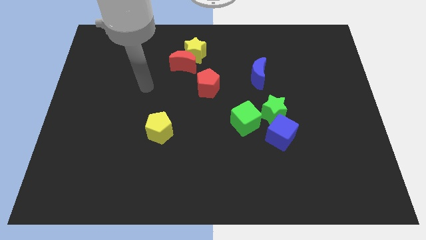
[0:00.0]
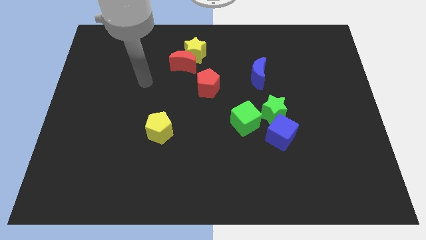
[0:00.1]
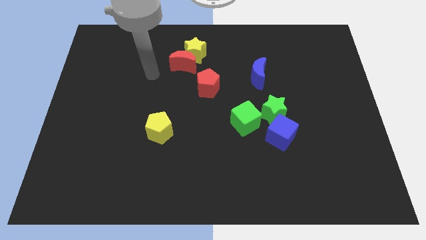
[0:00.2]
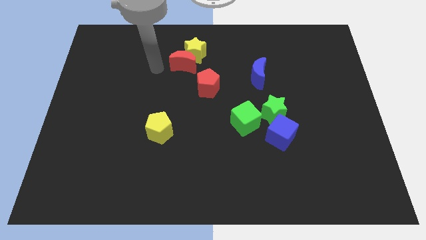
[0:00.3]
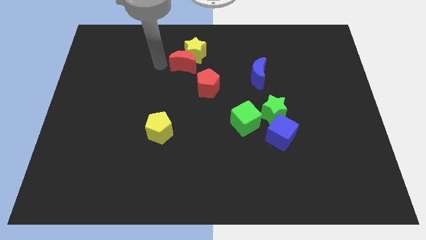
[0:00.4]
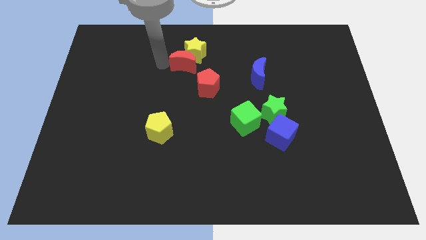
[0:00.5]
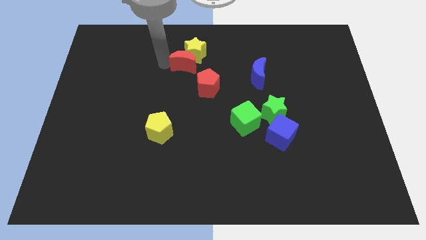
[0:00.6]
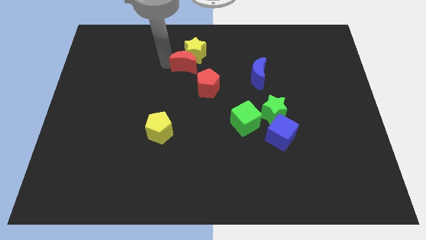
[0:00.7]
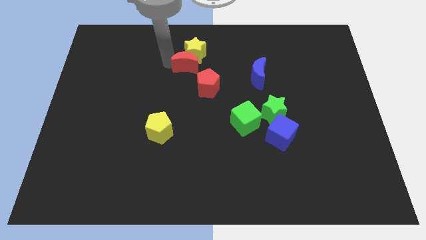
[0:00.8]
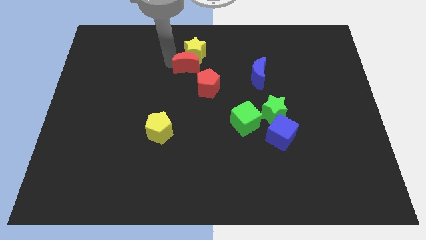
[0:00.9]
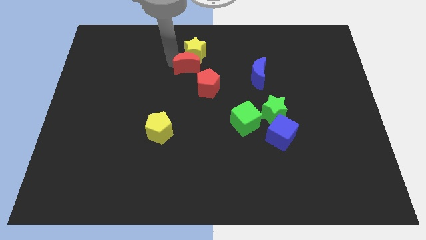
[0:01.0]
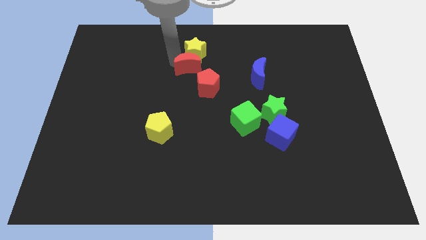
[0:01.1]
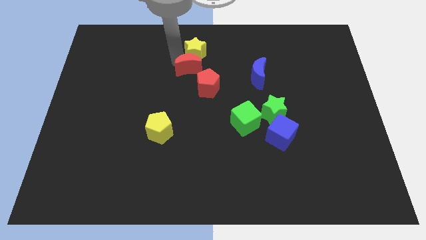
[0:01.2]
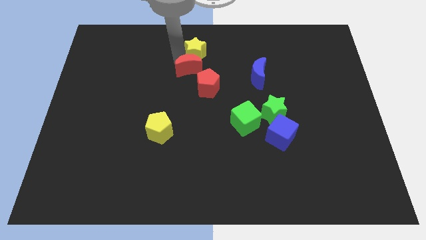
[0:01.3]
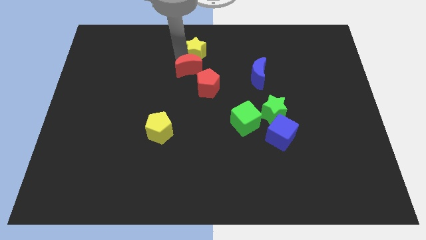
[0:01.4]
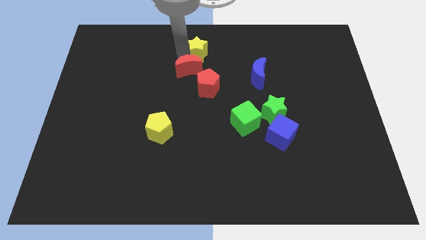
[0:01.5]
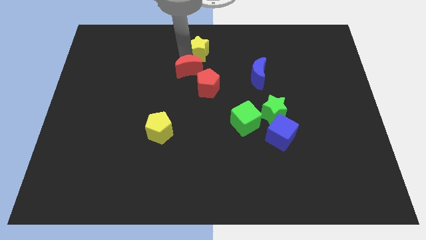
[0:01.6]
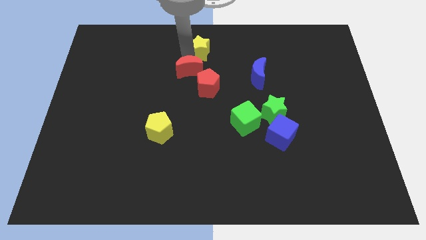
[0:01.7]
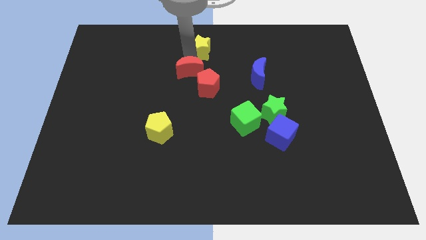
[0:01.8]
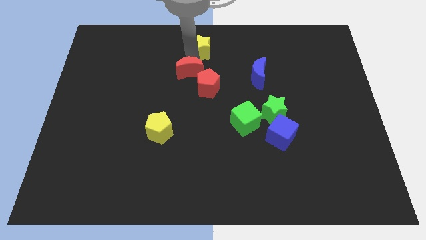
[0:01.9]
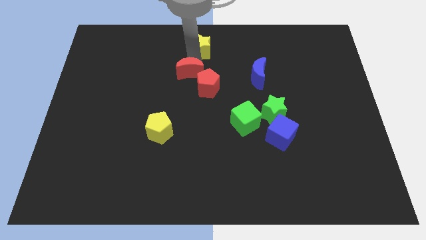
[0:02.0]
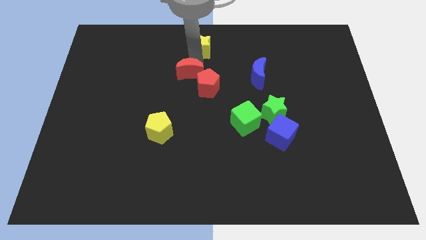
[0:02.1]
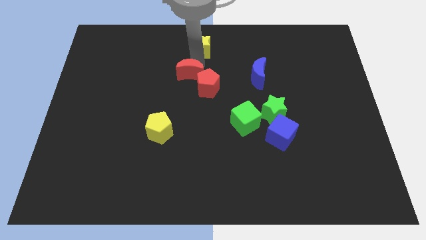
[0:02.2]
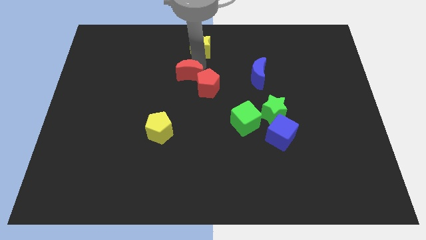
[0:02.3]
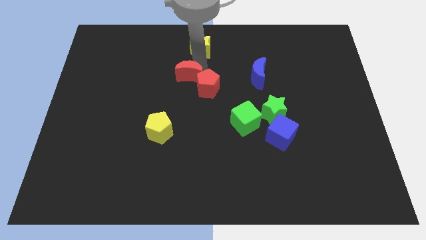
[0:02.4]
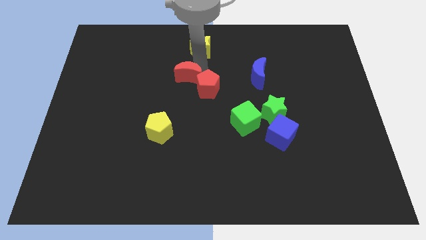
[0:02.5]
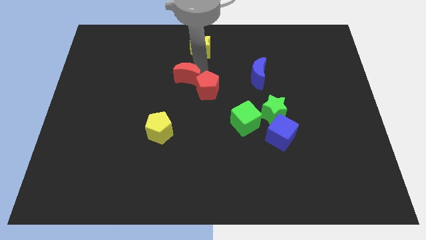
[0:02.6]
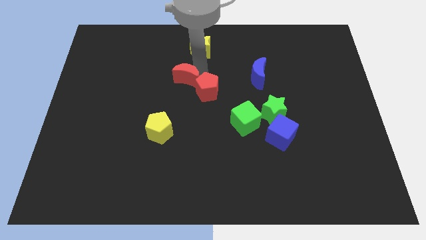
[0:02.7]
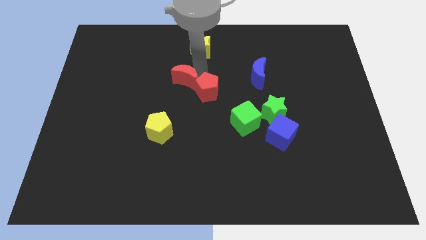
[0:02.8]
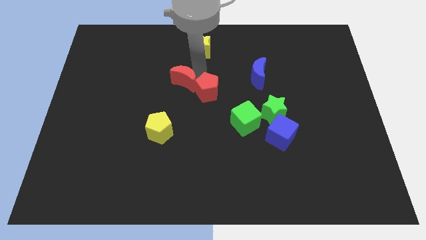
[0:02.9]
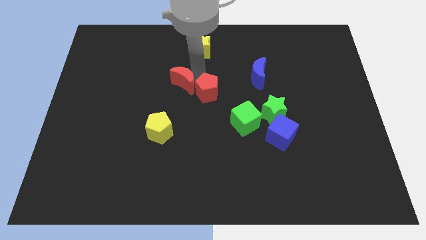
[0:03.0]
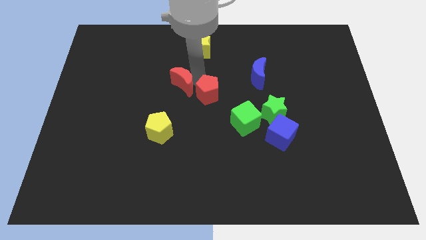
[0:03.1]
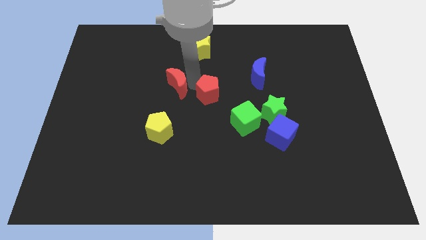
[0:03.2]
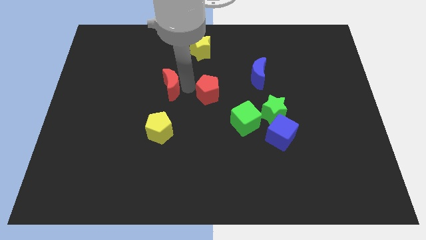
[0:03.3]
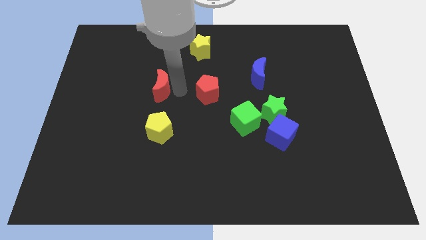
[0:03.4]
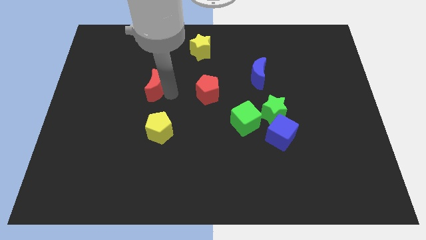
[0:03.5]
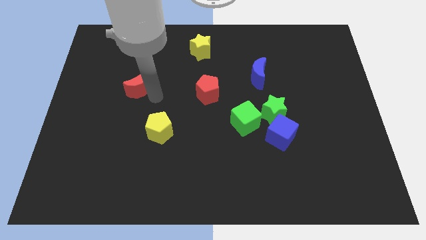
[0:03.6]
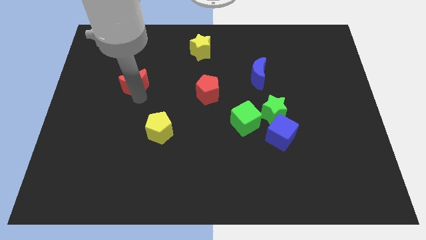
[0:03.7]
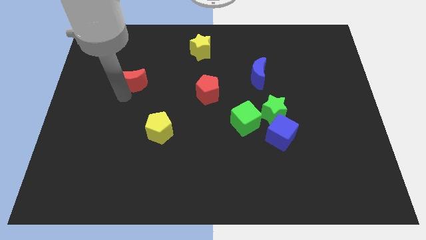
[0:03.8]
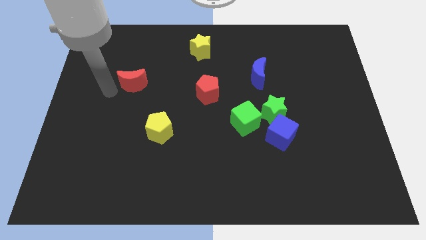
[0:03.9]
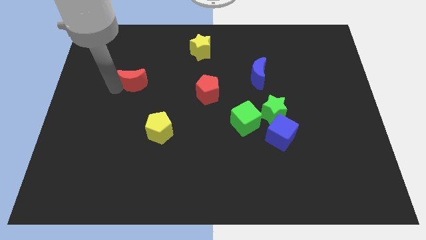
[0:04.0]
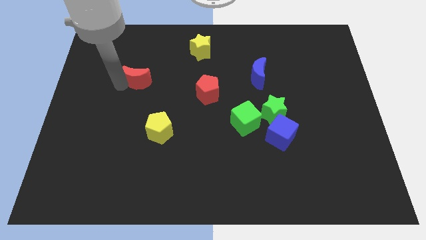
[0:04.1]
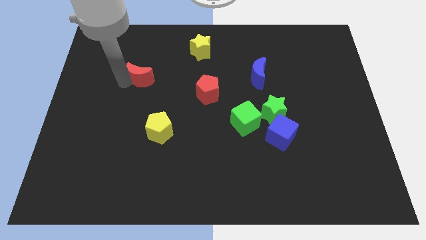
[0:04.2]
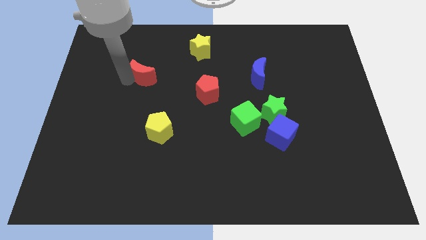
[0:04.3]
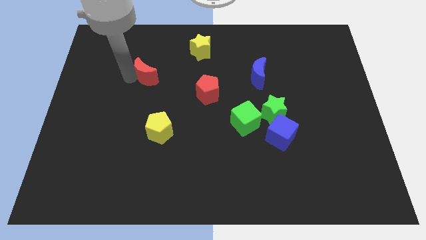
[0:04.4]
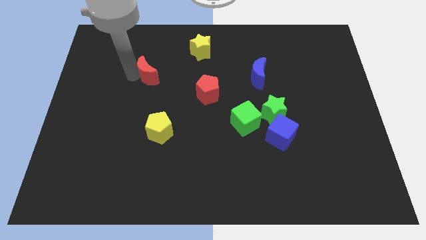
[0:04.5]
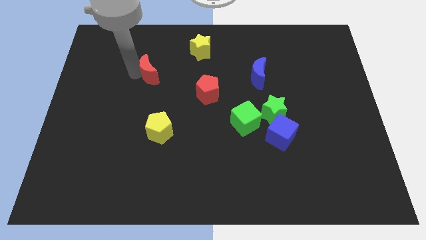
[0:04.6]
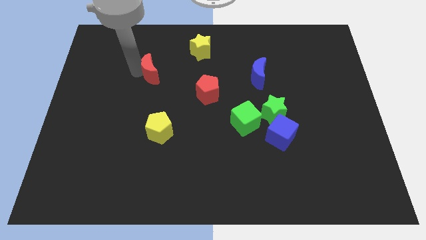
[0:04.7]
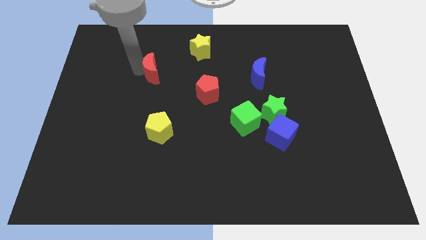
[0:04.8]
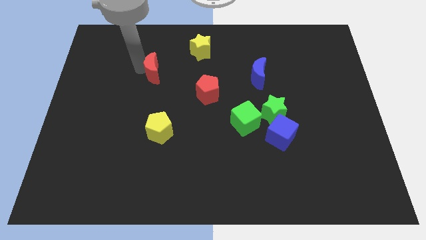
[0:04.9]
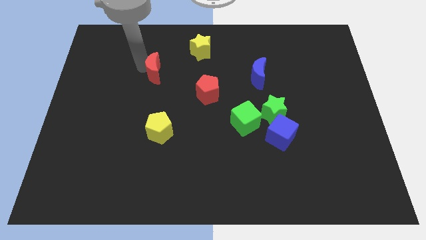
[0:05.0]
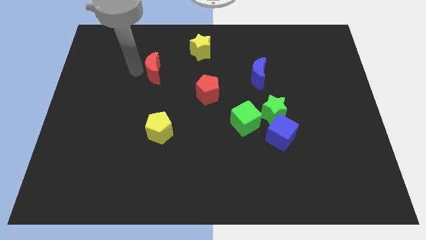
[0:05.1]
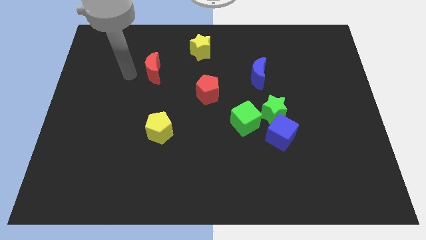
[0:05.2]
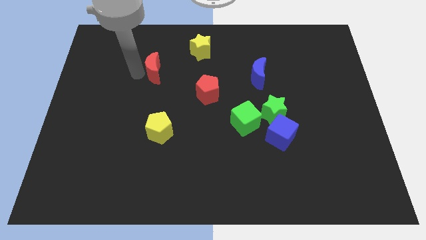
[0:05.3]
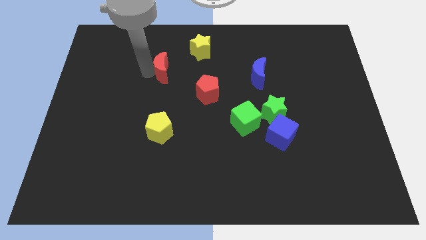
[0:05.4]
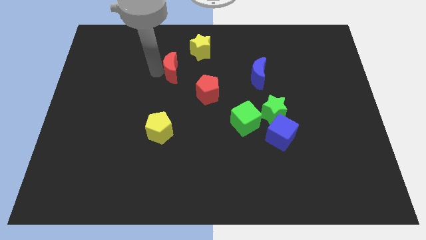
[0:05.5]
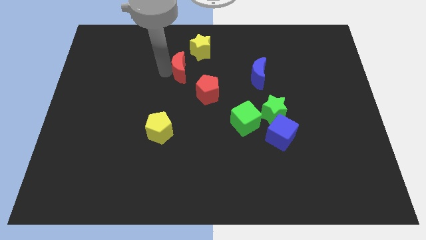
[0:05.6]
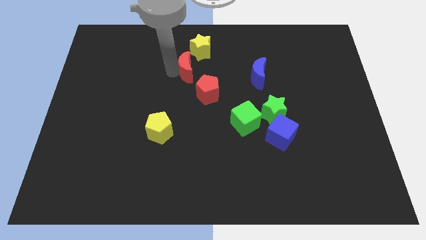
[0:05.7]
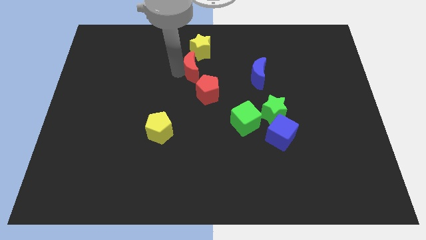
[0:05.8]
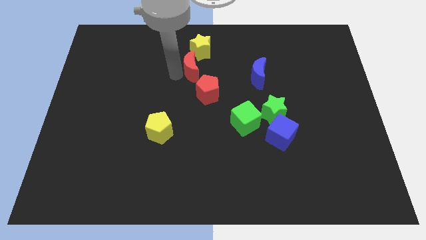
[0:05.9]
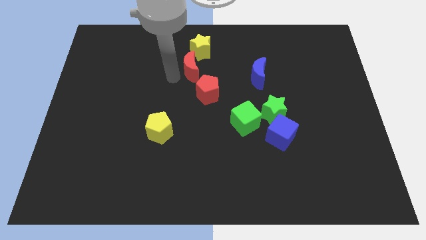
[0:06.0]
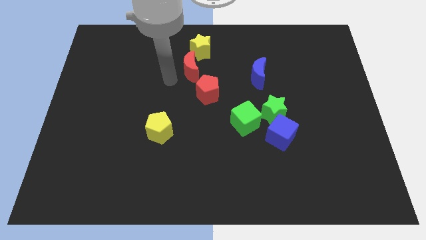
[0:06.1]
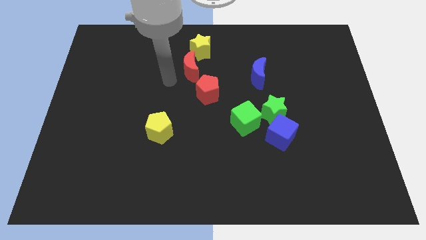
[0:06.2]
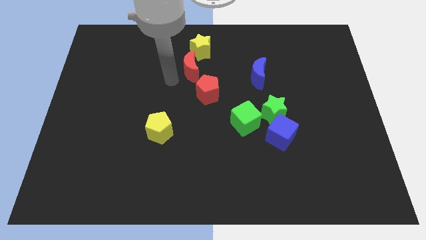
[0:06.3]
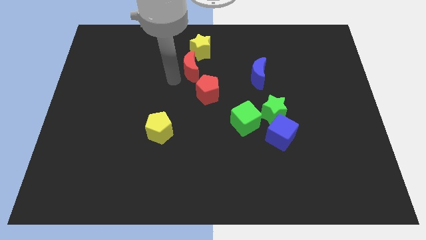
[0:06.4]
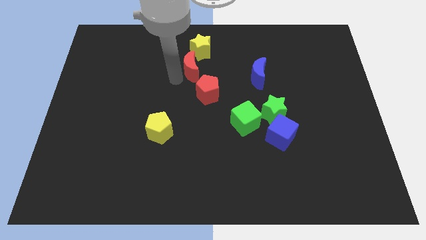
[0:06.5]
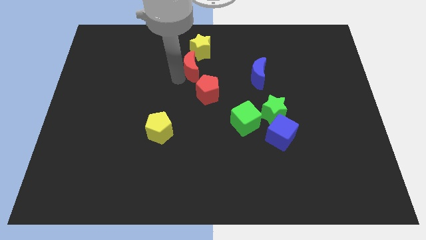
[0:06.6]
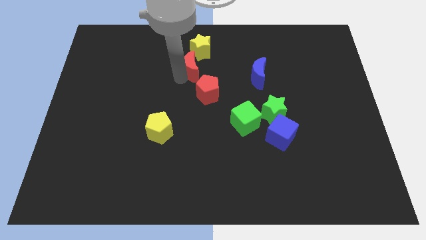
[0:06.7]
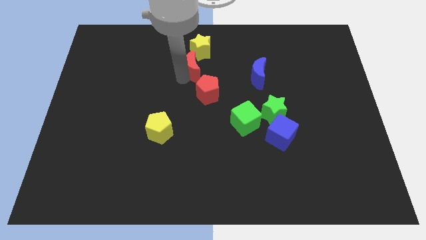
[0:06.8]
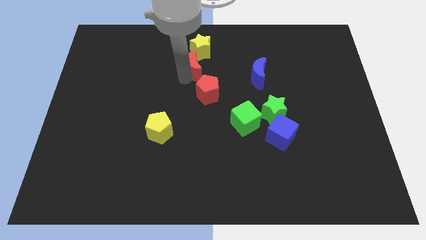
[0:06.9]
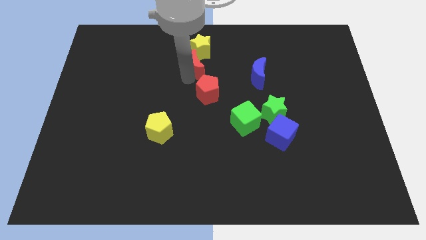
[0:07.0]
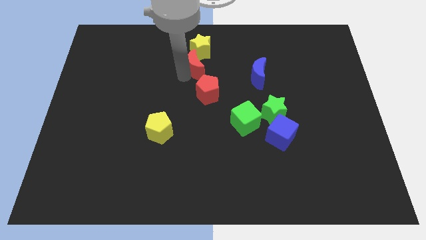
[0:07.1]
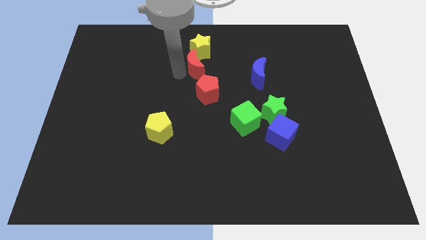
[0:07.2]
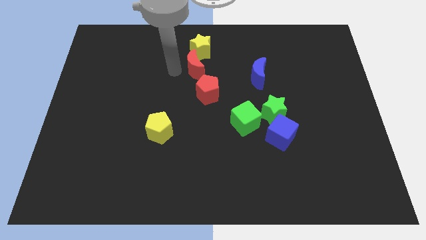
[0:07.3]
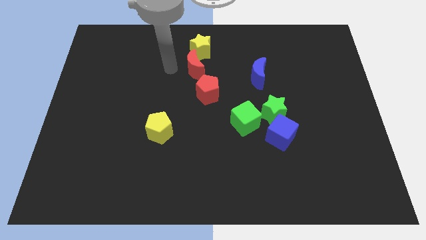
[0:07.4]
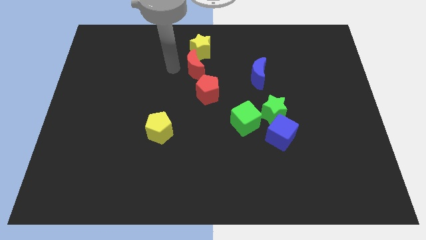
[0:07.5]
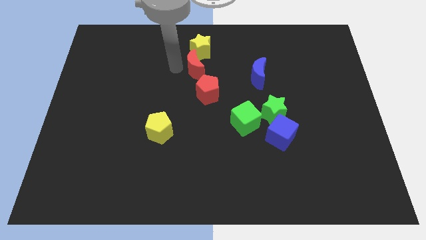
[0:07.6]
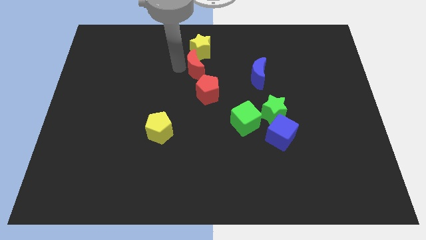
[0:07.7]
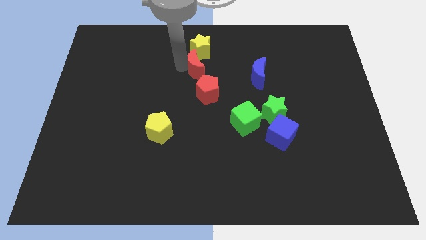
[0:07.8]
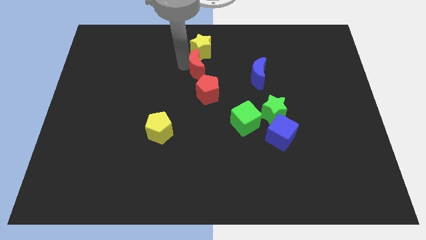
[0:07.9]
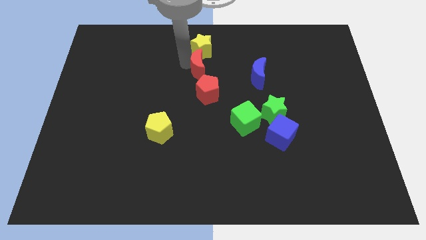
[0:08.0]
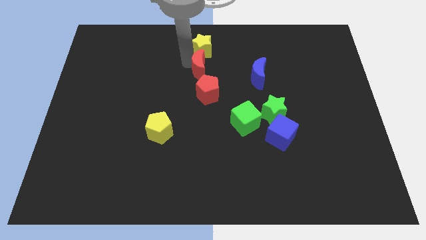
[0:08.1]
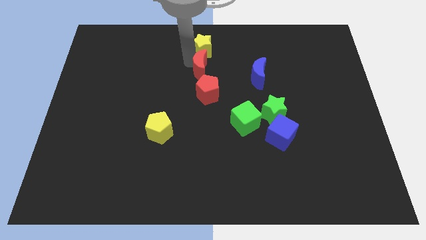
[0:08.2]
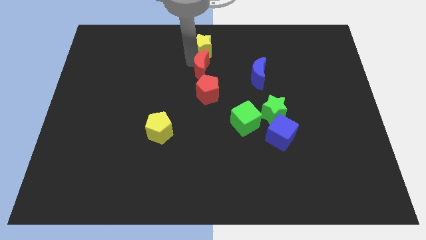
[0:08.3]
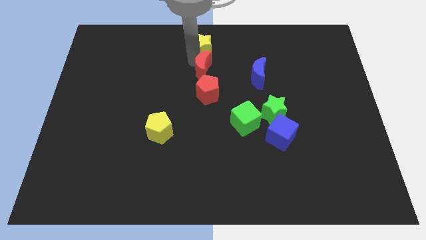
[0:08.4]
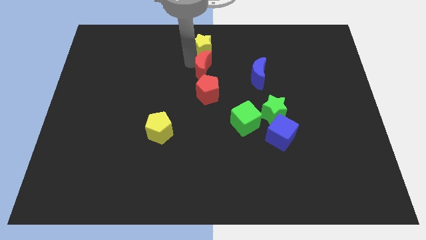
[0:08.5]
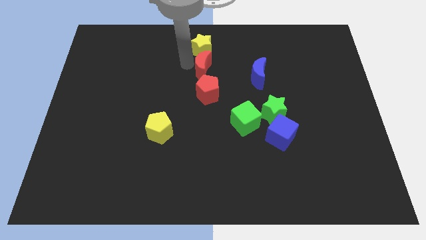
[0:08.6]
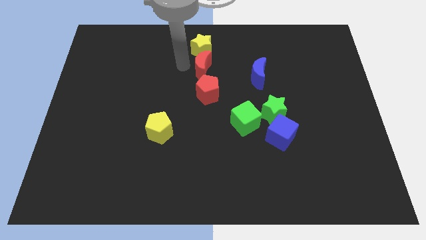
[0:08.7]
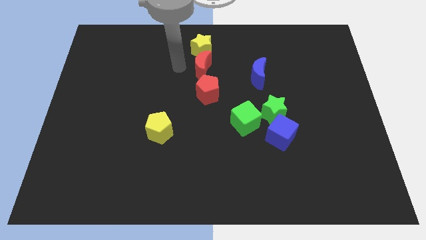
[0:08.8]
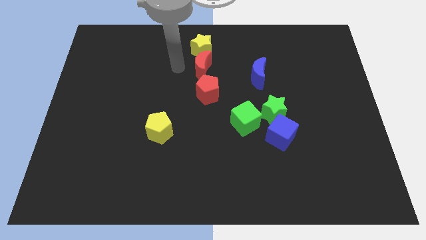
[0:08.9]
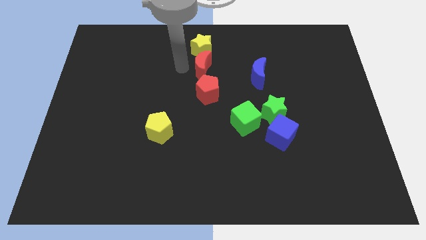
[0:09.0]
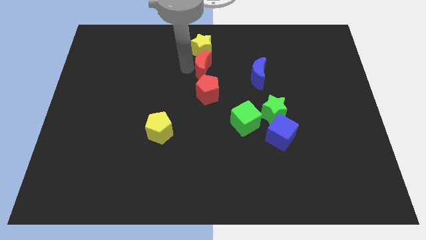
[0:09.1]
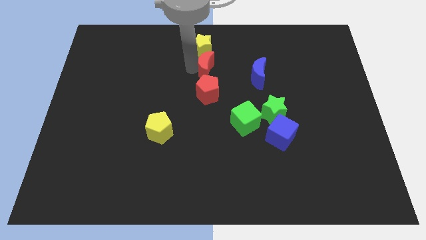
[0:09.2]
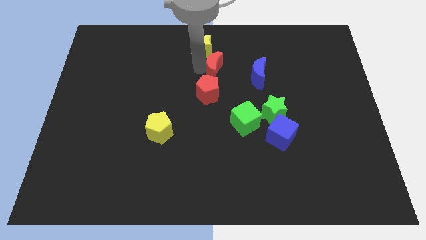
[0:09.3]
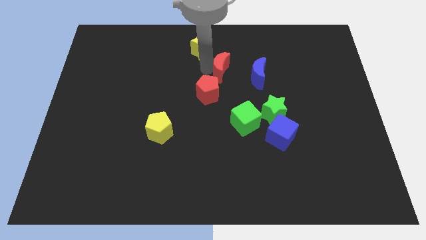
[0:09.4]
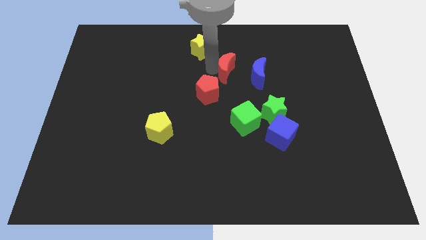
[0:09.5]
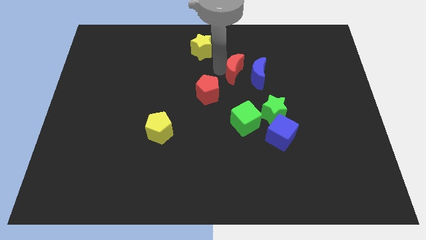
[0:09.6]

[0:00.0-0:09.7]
push the red moon close to the blue moon
